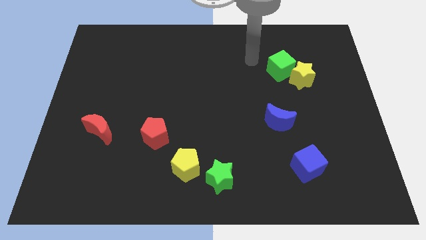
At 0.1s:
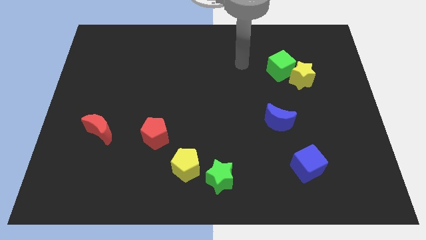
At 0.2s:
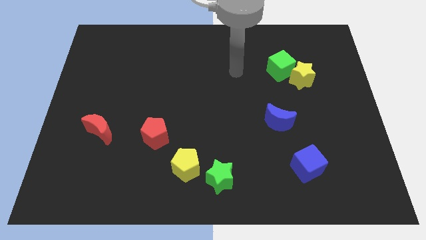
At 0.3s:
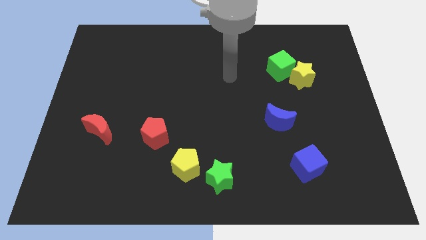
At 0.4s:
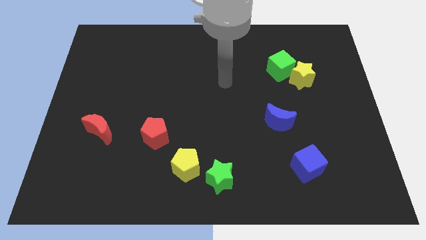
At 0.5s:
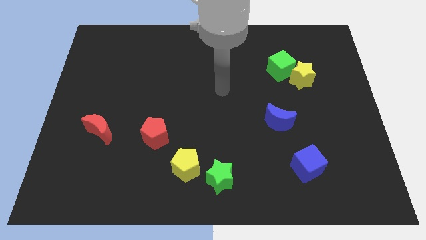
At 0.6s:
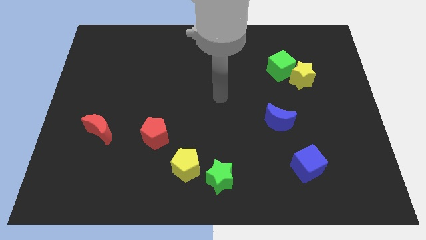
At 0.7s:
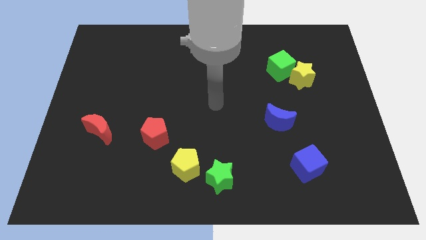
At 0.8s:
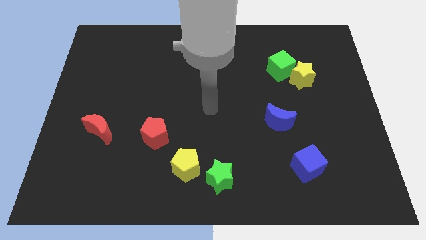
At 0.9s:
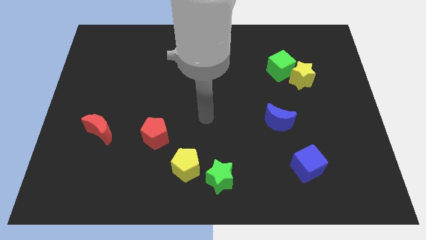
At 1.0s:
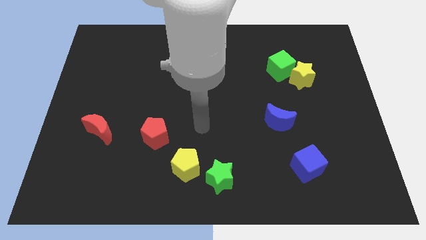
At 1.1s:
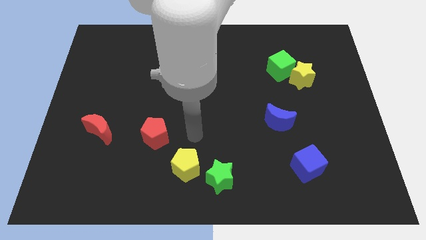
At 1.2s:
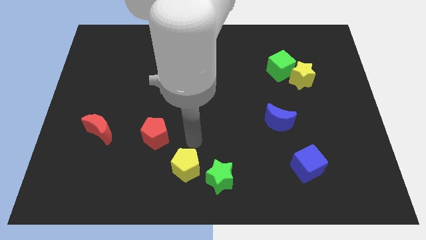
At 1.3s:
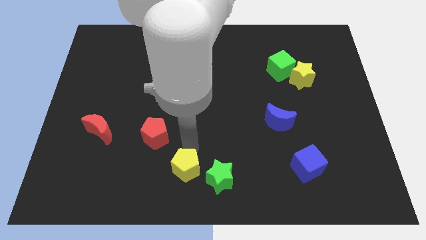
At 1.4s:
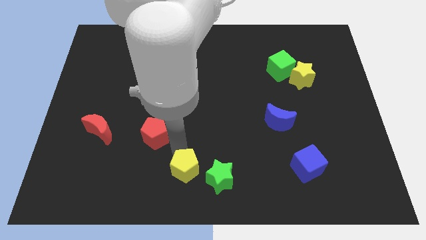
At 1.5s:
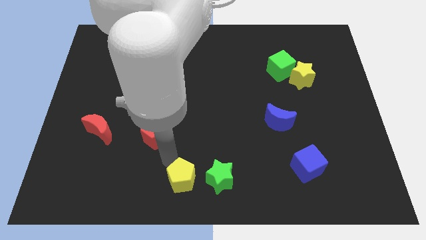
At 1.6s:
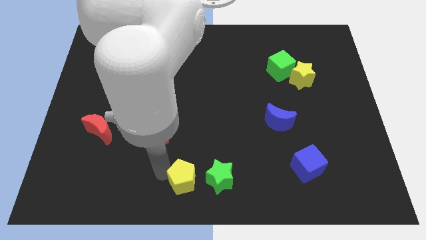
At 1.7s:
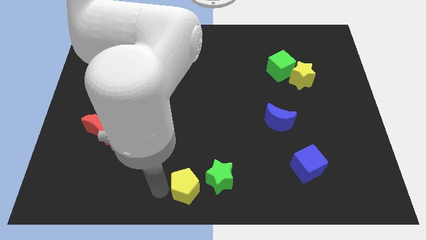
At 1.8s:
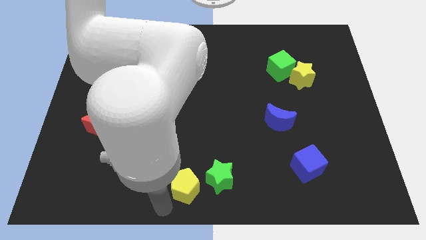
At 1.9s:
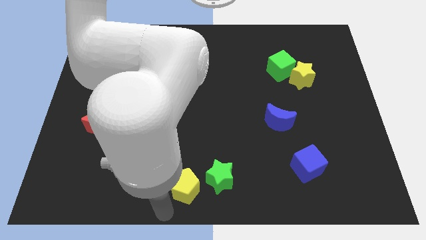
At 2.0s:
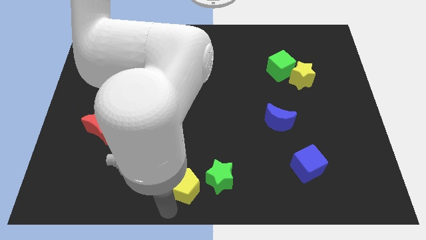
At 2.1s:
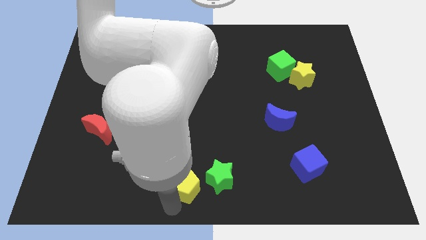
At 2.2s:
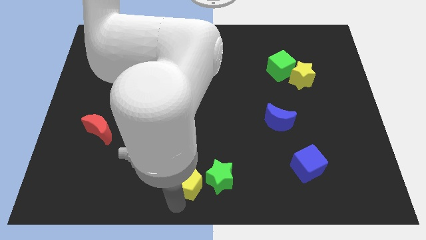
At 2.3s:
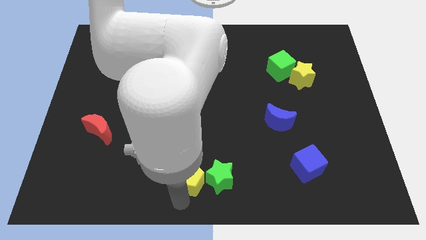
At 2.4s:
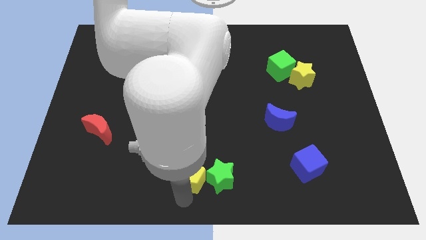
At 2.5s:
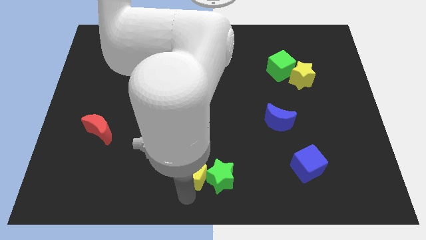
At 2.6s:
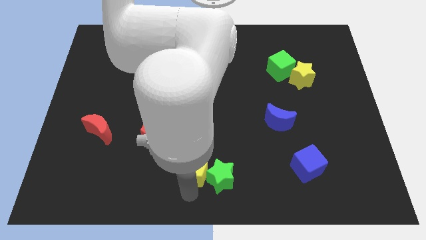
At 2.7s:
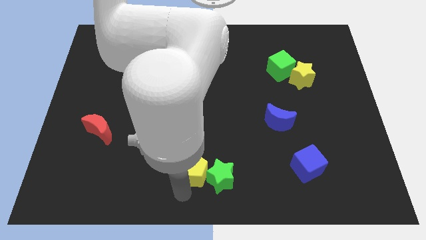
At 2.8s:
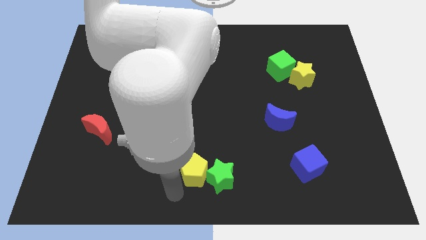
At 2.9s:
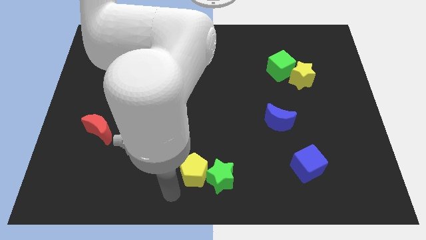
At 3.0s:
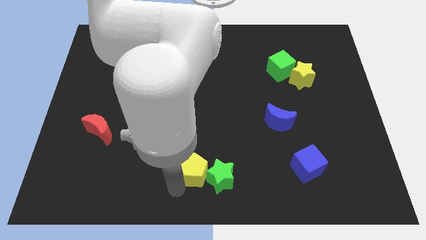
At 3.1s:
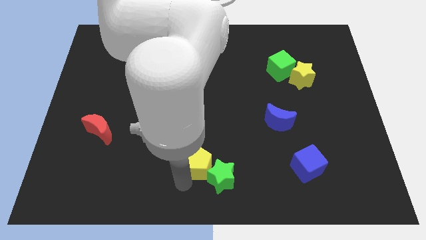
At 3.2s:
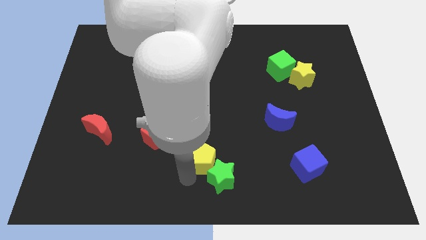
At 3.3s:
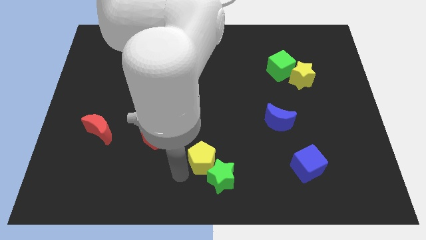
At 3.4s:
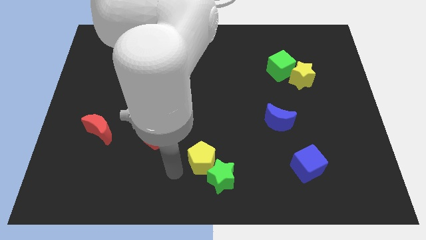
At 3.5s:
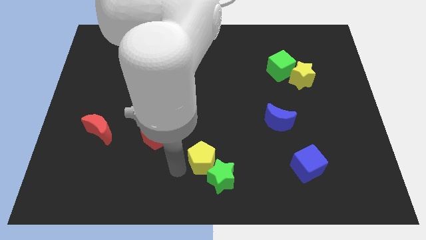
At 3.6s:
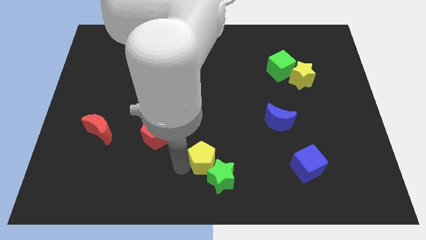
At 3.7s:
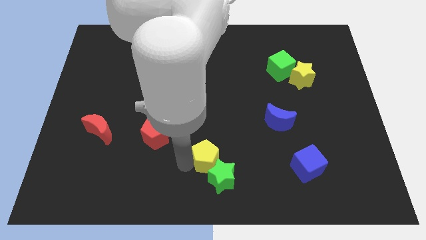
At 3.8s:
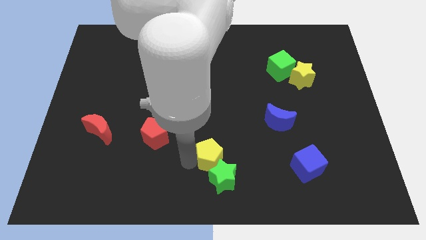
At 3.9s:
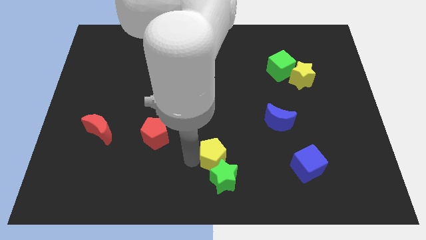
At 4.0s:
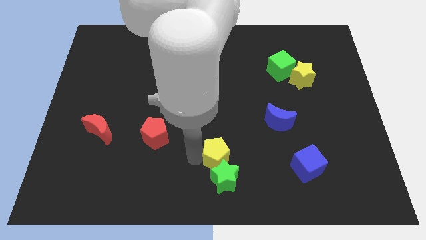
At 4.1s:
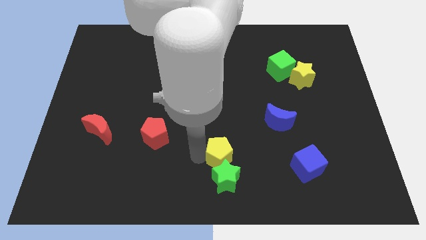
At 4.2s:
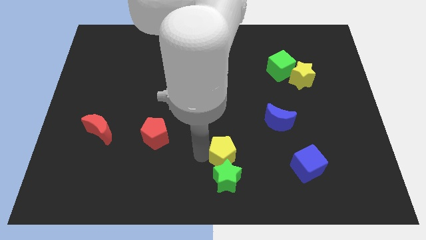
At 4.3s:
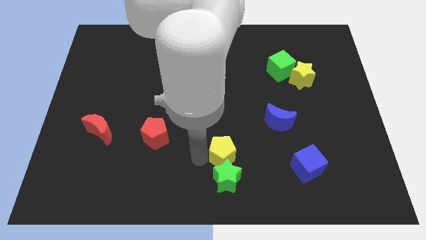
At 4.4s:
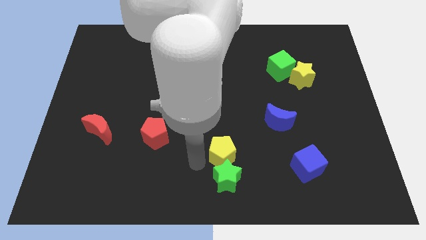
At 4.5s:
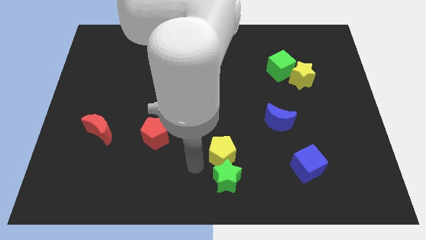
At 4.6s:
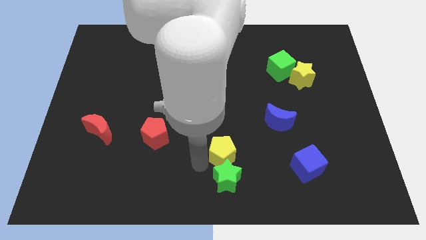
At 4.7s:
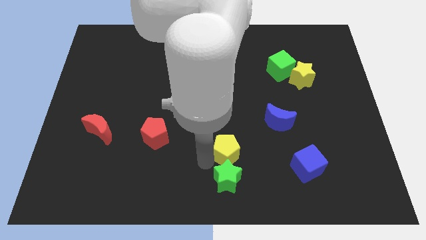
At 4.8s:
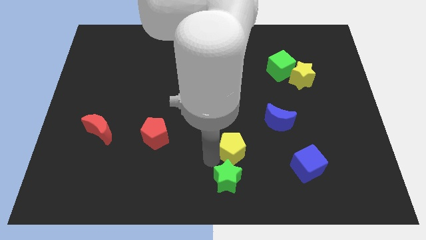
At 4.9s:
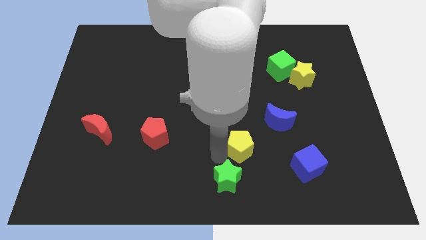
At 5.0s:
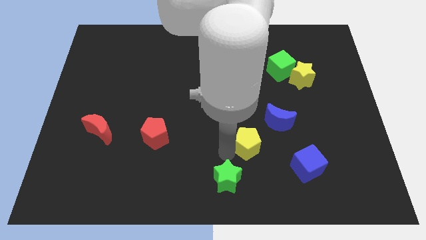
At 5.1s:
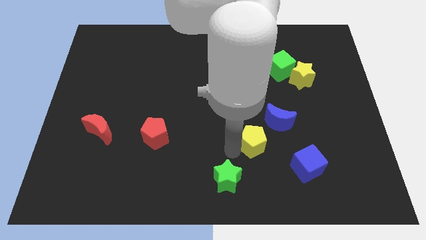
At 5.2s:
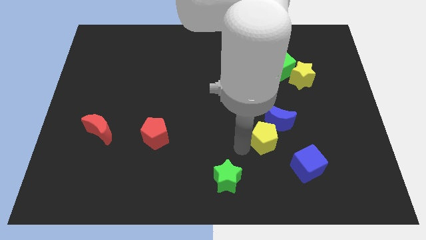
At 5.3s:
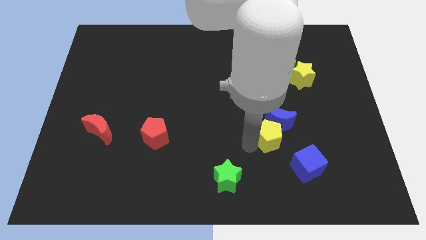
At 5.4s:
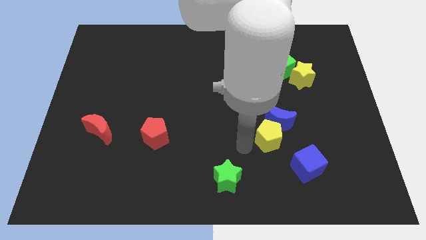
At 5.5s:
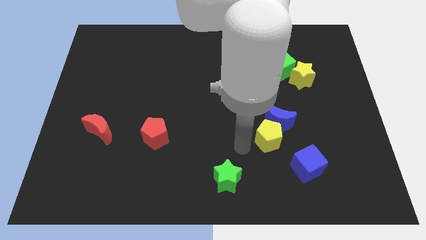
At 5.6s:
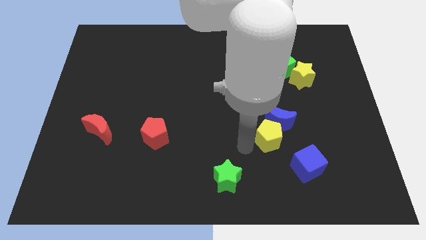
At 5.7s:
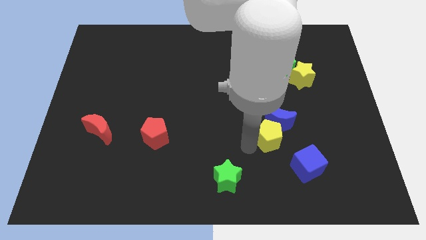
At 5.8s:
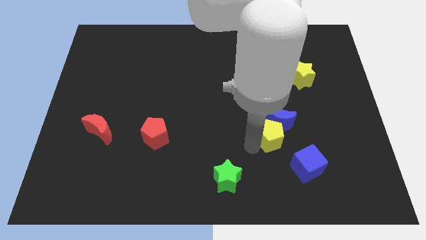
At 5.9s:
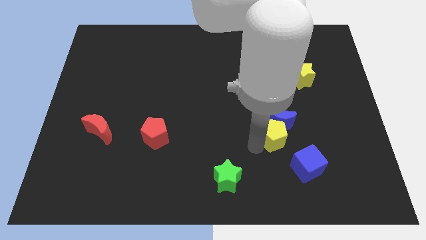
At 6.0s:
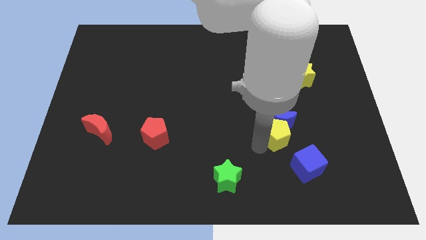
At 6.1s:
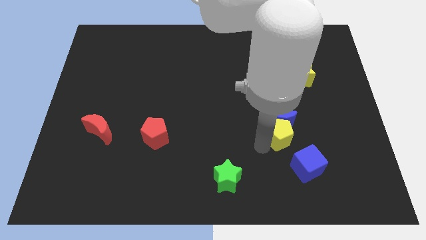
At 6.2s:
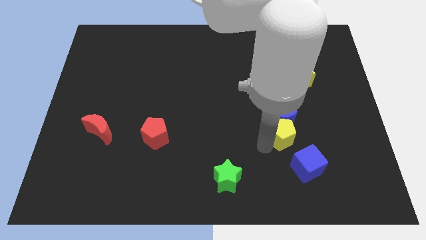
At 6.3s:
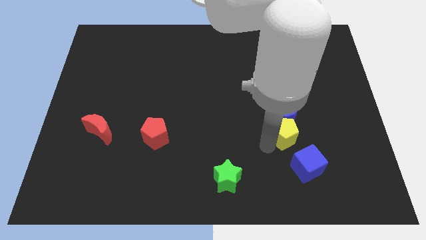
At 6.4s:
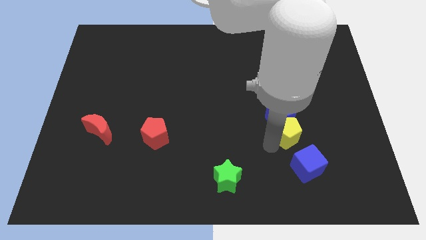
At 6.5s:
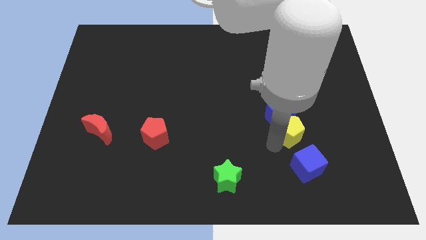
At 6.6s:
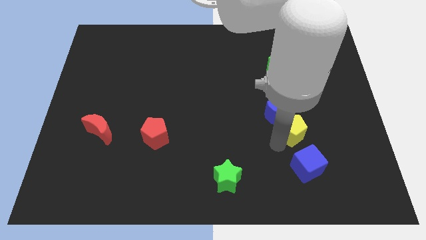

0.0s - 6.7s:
push the yellow pentagon just right of the blue moon

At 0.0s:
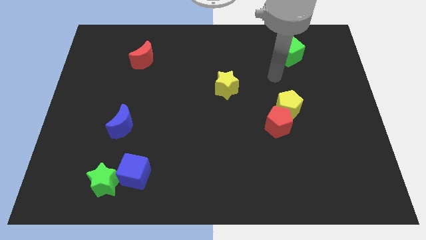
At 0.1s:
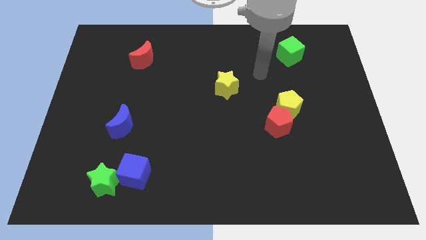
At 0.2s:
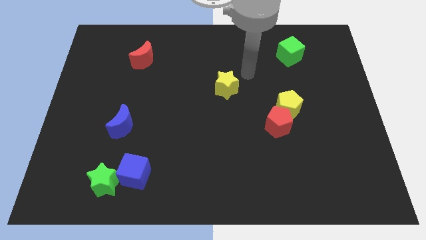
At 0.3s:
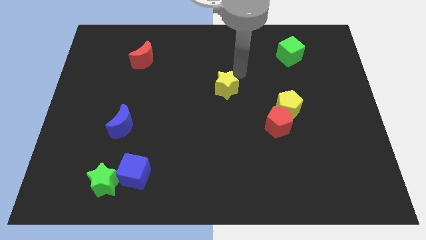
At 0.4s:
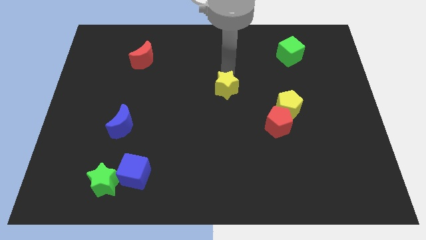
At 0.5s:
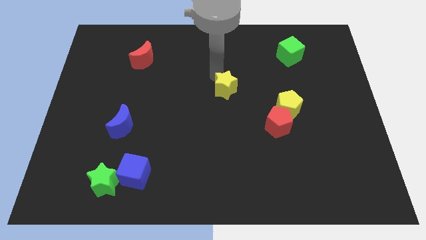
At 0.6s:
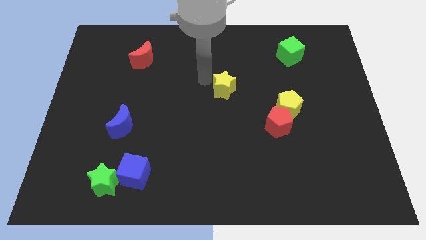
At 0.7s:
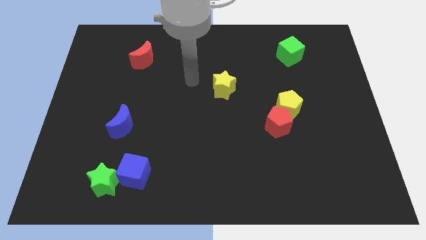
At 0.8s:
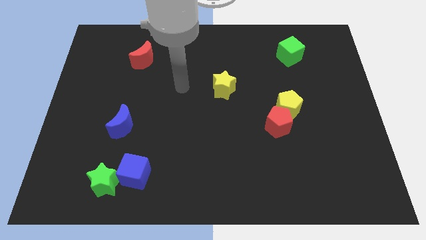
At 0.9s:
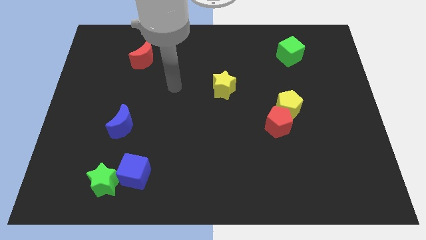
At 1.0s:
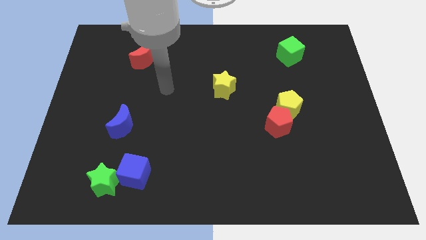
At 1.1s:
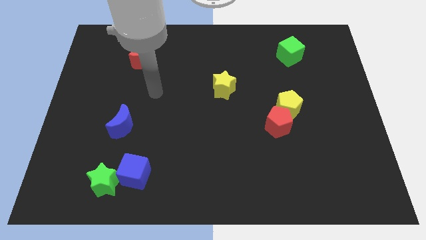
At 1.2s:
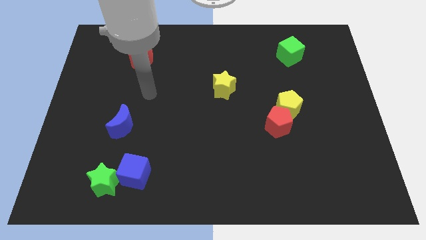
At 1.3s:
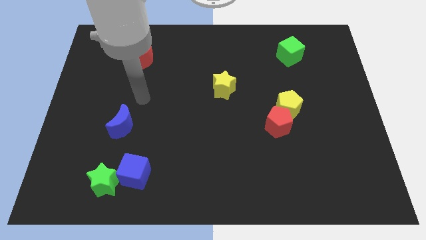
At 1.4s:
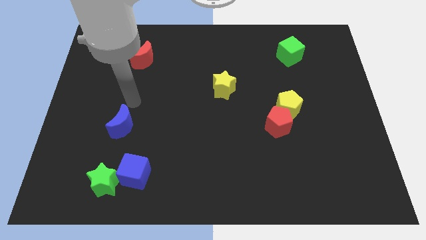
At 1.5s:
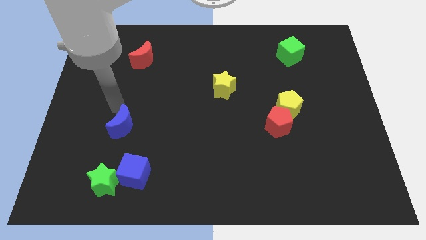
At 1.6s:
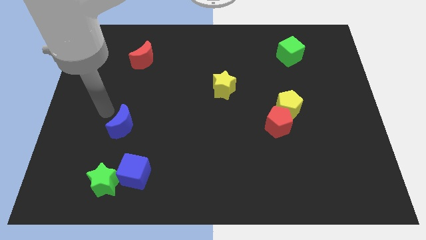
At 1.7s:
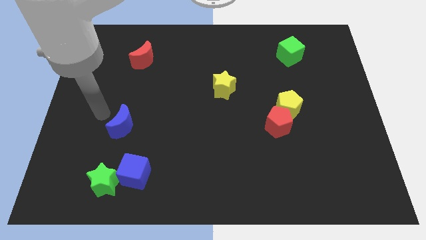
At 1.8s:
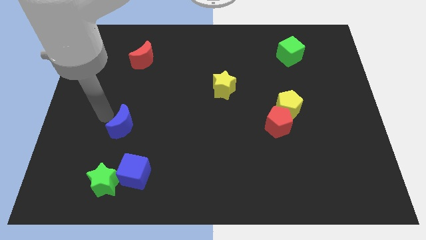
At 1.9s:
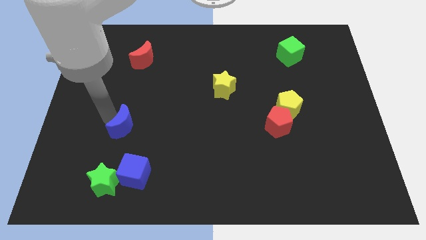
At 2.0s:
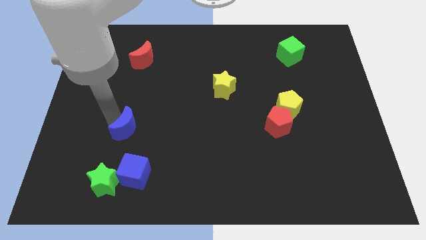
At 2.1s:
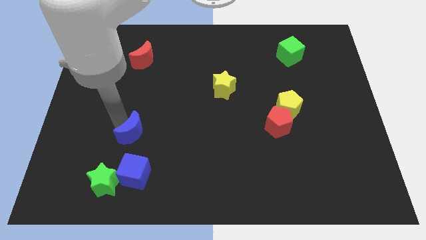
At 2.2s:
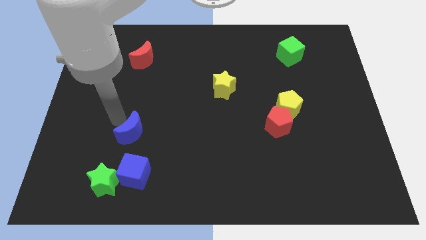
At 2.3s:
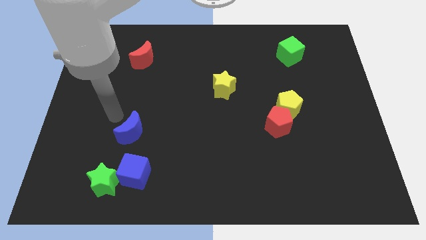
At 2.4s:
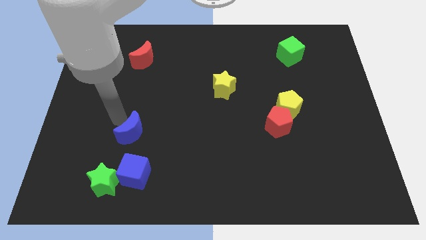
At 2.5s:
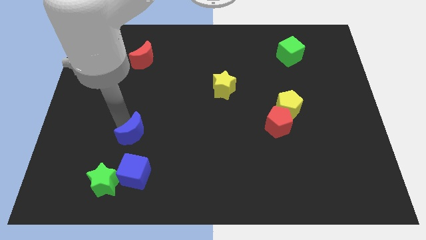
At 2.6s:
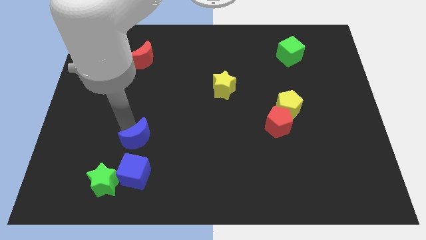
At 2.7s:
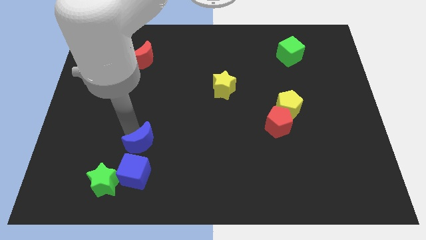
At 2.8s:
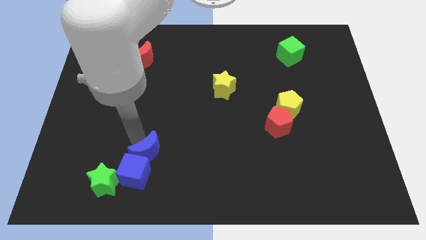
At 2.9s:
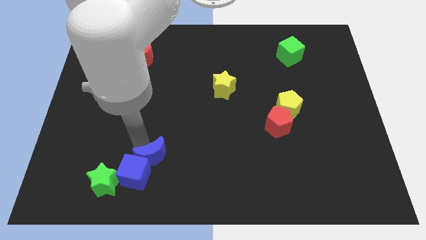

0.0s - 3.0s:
slide the blue moon right of the blue cube
